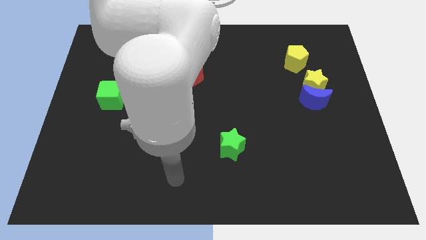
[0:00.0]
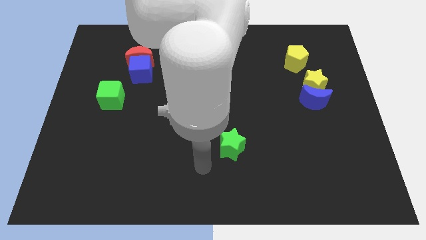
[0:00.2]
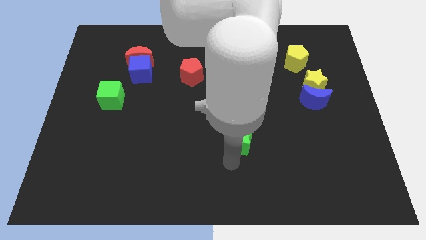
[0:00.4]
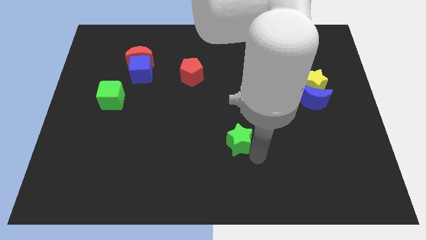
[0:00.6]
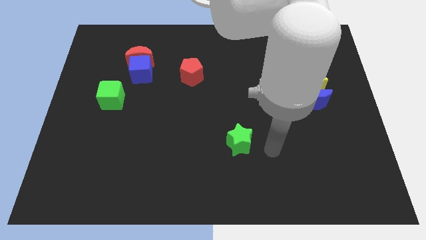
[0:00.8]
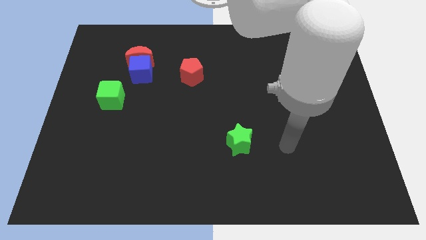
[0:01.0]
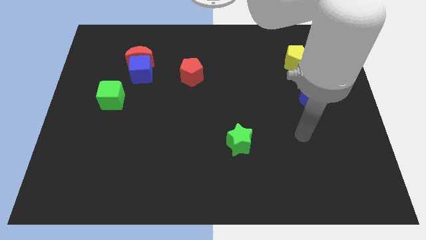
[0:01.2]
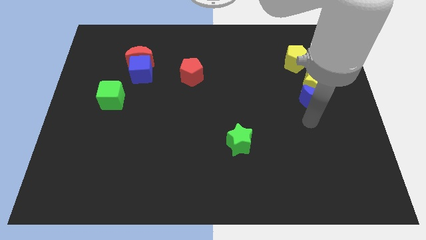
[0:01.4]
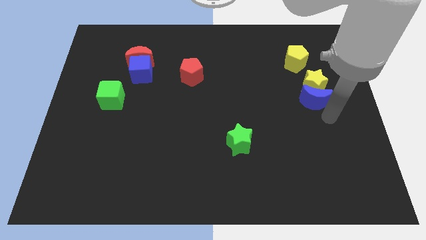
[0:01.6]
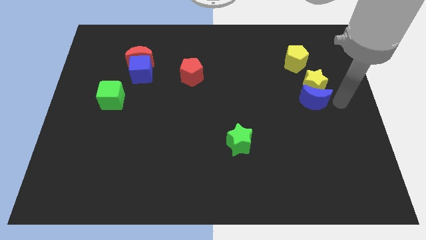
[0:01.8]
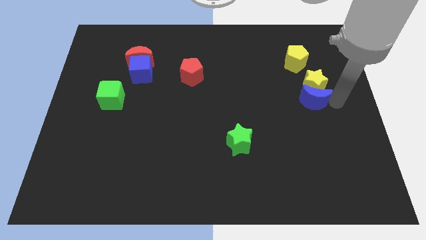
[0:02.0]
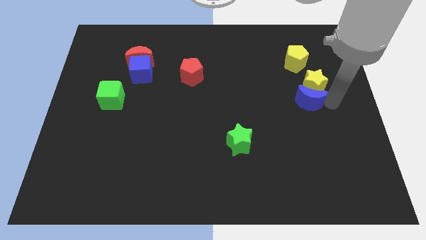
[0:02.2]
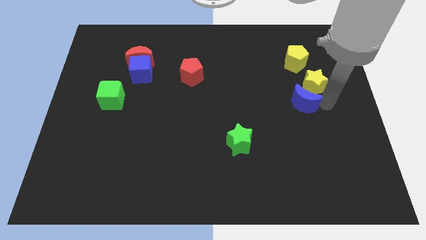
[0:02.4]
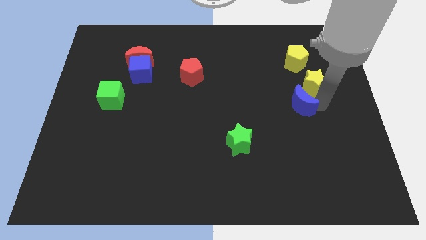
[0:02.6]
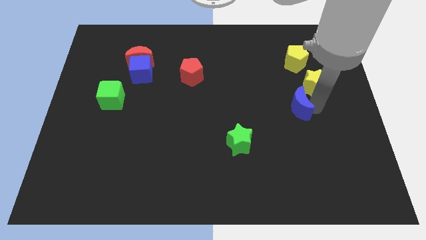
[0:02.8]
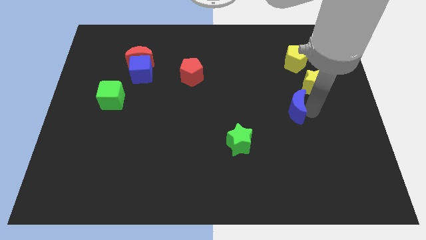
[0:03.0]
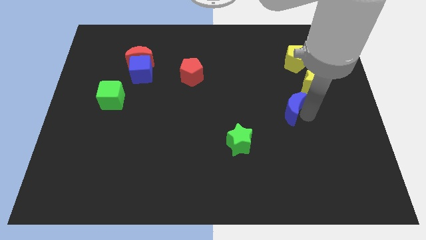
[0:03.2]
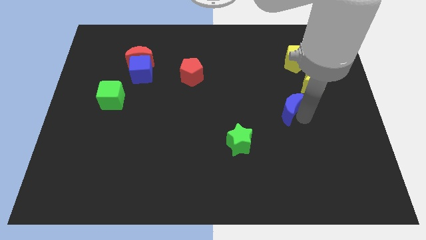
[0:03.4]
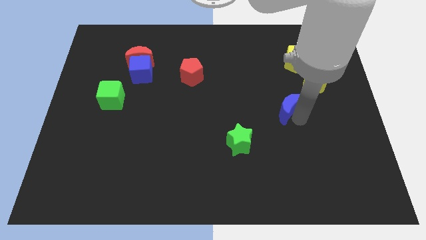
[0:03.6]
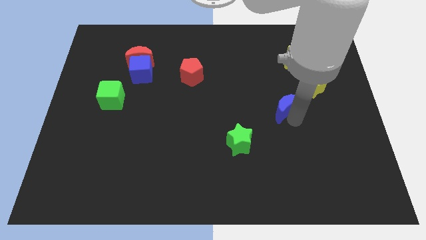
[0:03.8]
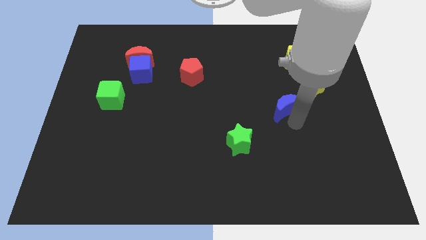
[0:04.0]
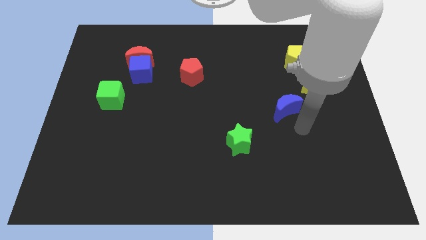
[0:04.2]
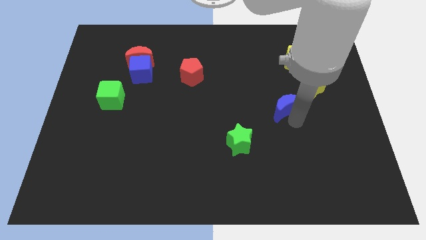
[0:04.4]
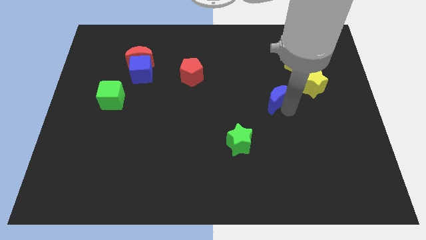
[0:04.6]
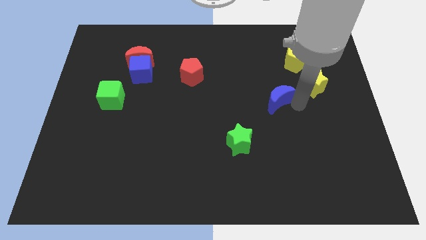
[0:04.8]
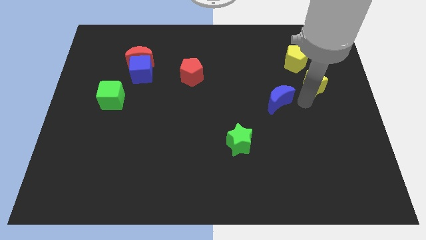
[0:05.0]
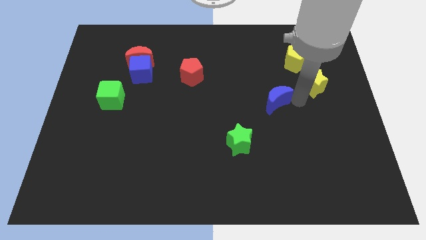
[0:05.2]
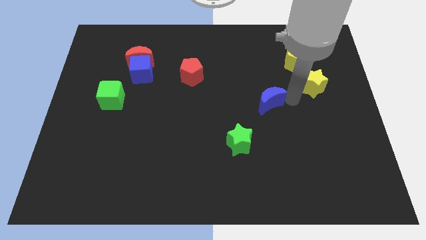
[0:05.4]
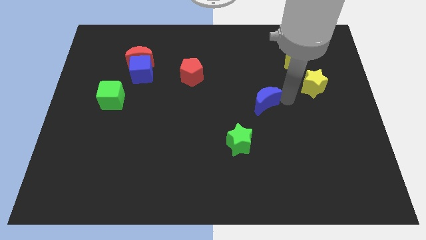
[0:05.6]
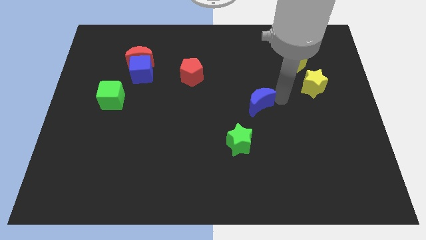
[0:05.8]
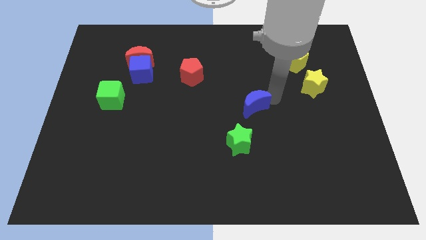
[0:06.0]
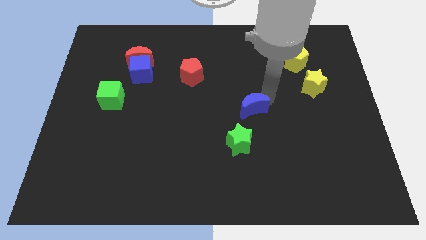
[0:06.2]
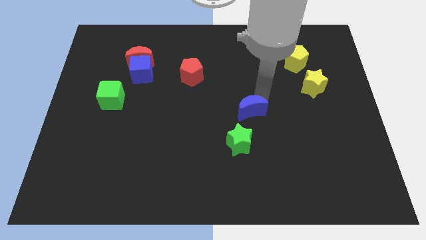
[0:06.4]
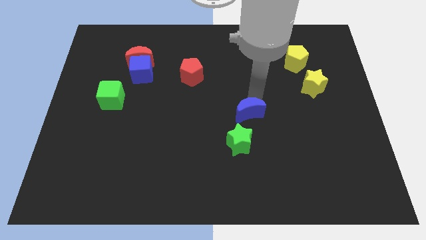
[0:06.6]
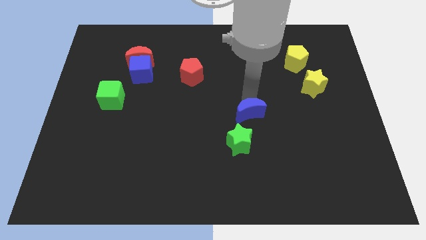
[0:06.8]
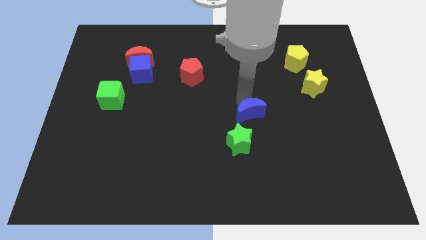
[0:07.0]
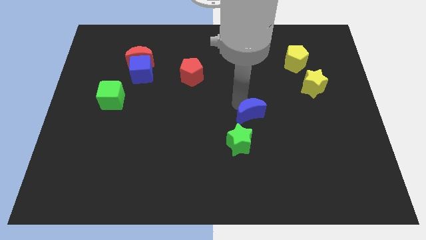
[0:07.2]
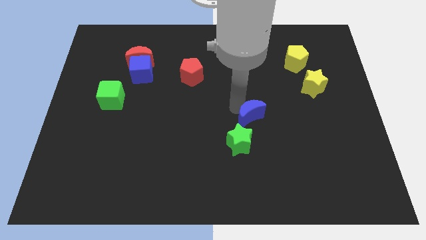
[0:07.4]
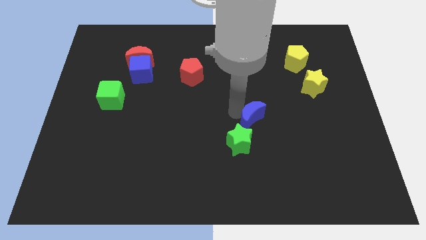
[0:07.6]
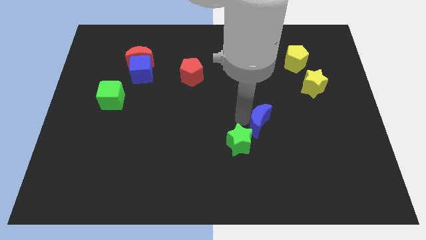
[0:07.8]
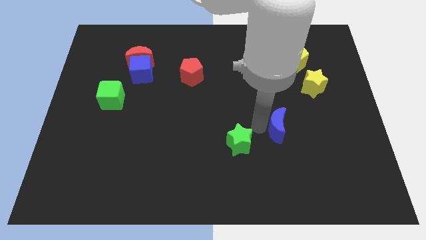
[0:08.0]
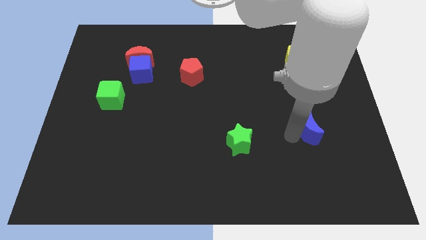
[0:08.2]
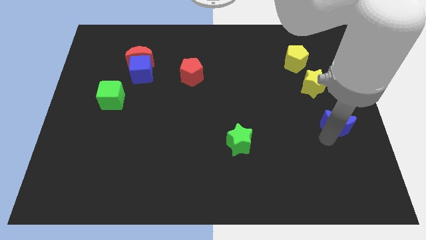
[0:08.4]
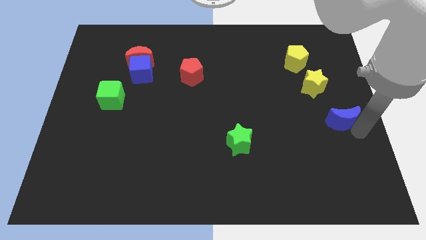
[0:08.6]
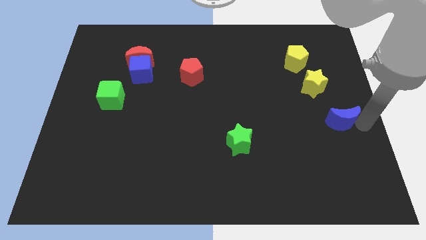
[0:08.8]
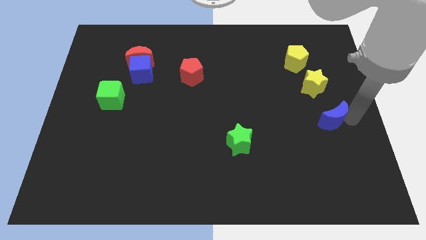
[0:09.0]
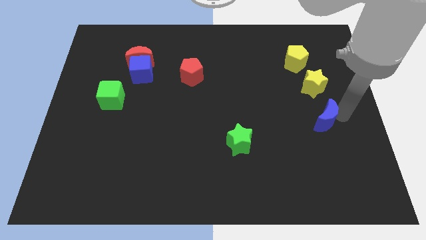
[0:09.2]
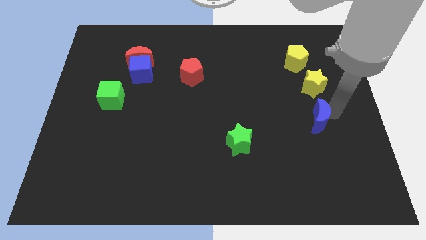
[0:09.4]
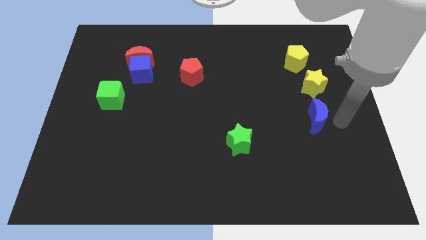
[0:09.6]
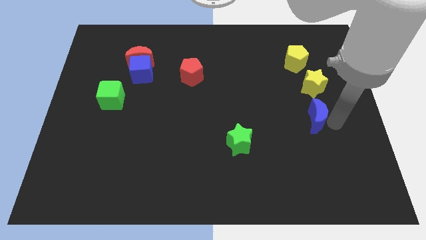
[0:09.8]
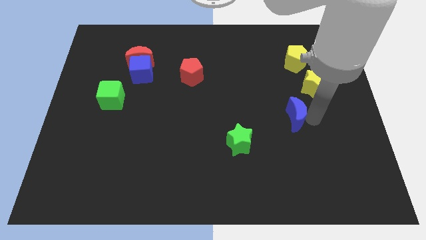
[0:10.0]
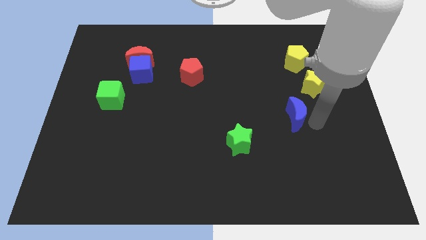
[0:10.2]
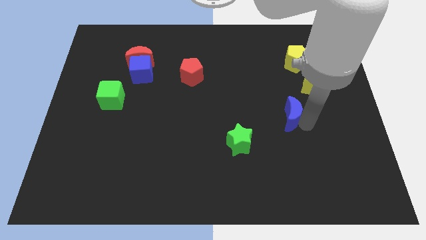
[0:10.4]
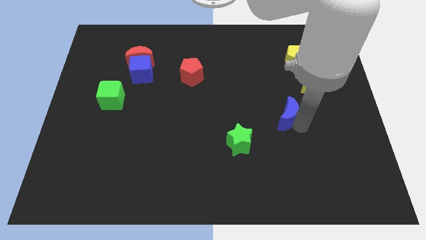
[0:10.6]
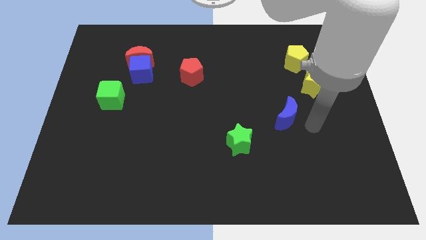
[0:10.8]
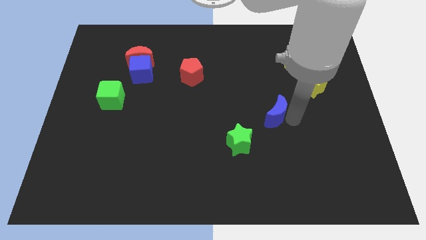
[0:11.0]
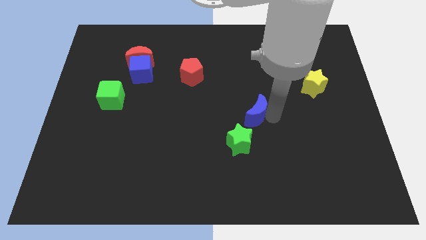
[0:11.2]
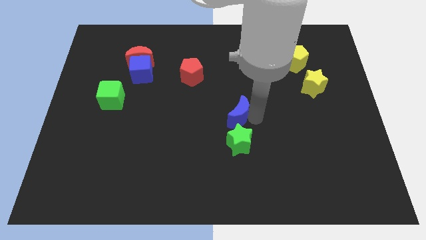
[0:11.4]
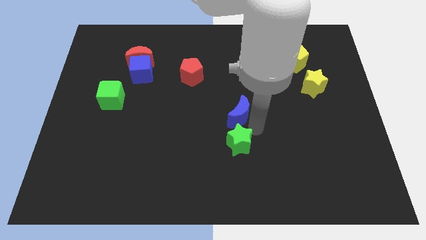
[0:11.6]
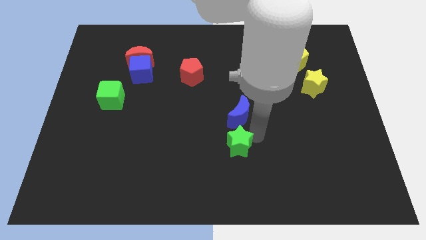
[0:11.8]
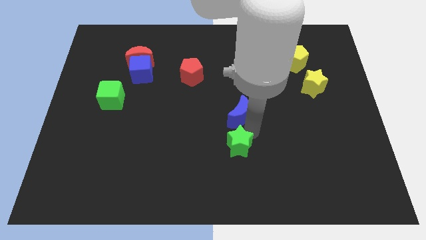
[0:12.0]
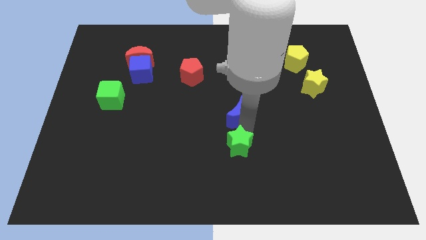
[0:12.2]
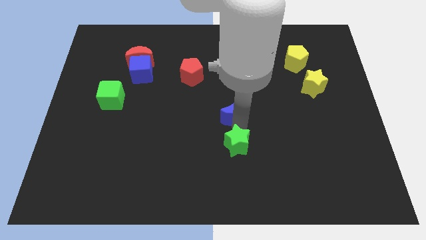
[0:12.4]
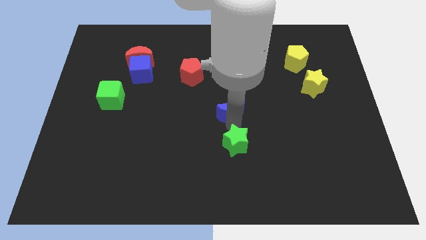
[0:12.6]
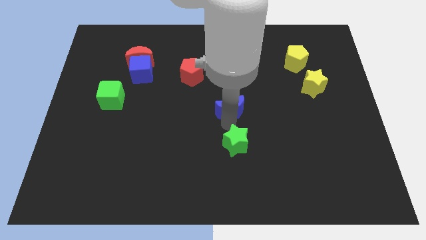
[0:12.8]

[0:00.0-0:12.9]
move the blue moon to the left

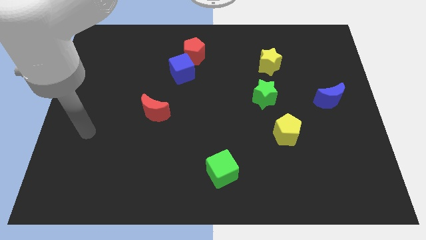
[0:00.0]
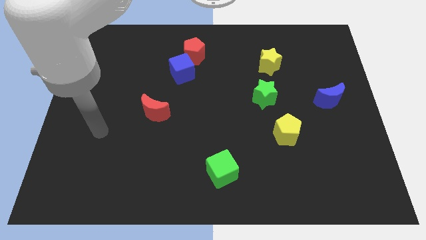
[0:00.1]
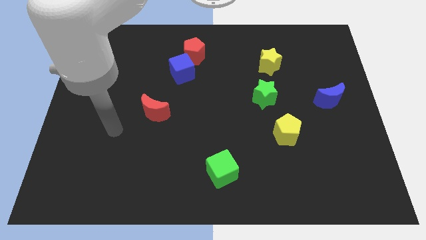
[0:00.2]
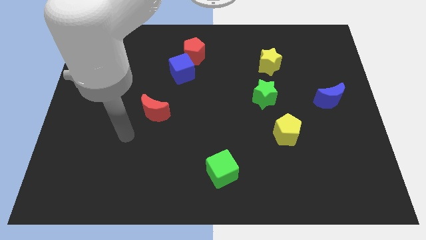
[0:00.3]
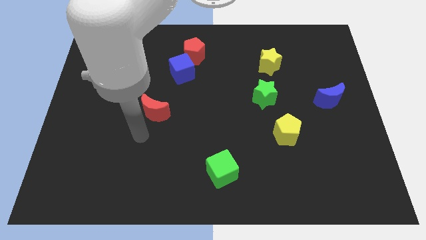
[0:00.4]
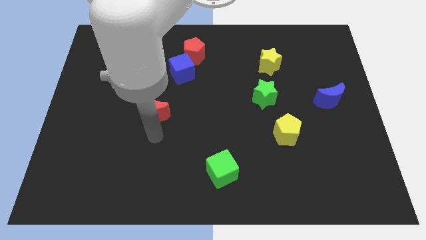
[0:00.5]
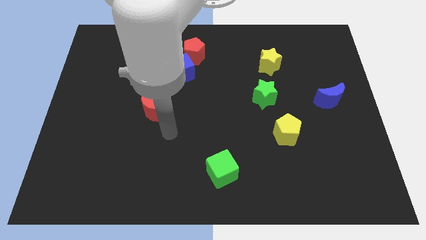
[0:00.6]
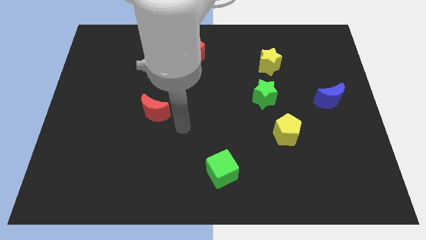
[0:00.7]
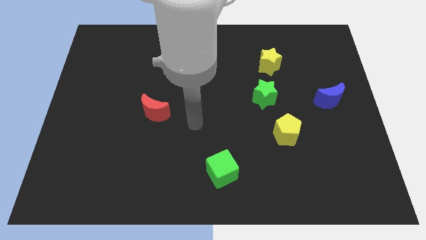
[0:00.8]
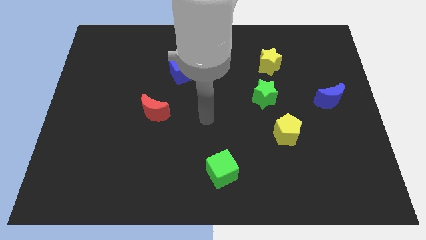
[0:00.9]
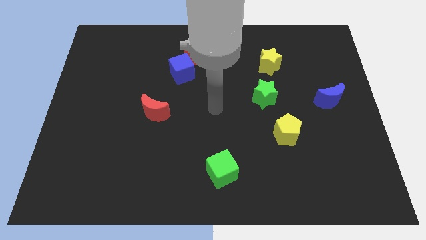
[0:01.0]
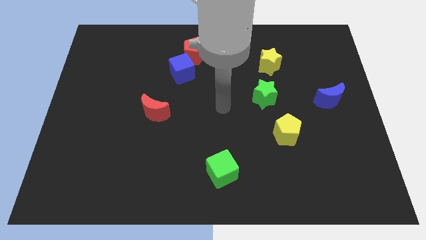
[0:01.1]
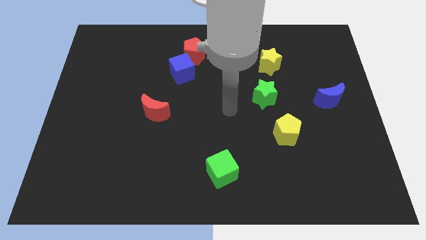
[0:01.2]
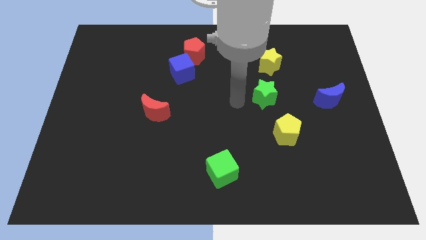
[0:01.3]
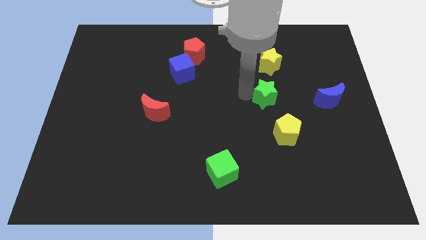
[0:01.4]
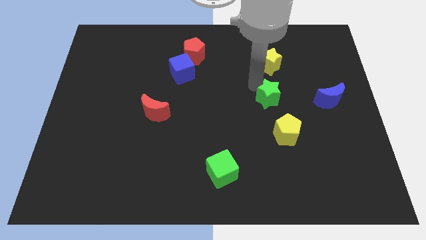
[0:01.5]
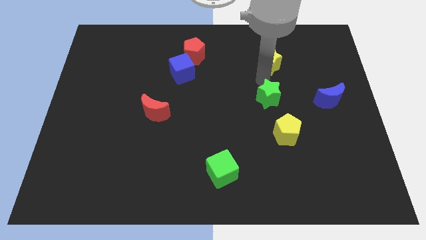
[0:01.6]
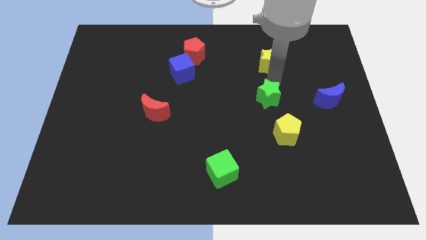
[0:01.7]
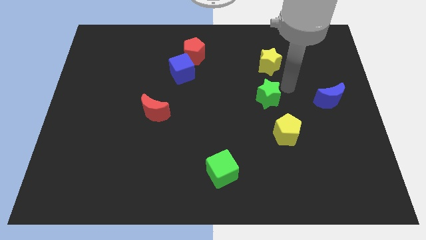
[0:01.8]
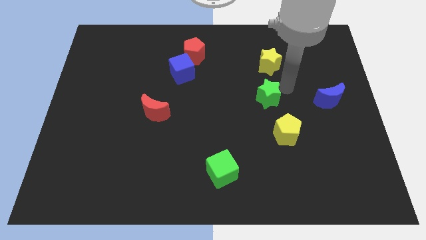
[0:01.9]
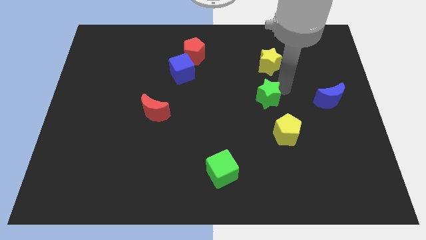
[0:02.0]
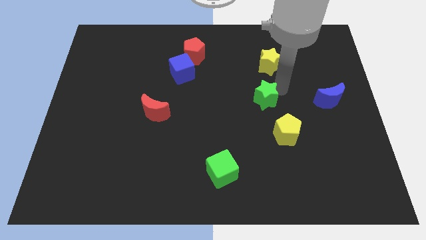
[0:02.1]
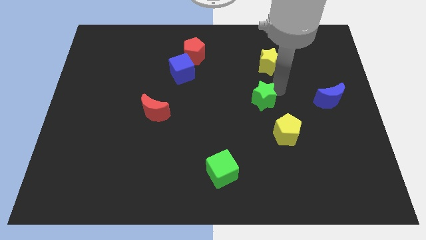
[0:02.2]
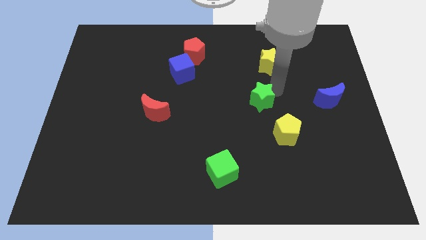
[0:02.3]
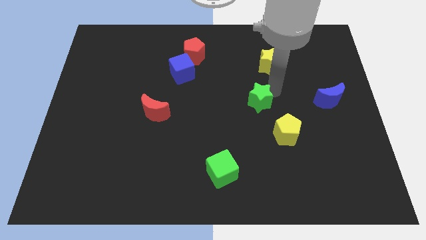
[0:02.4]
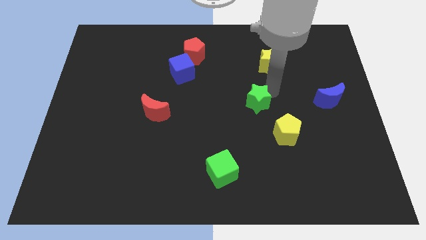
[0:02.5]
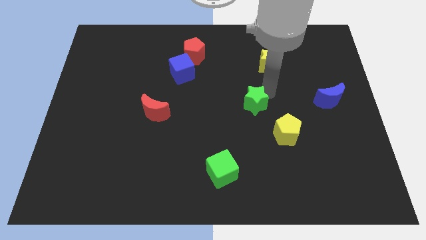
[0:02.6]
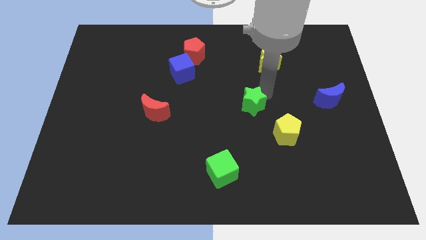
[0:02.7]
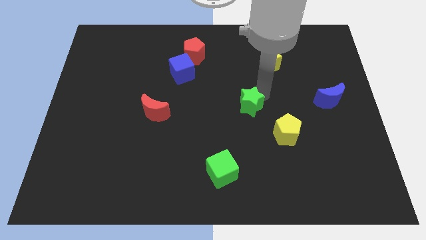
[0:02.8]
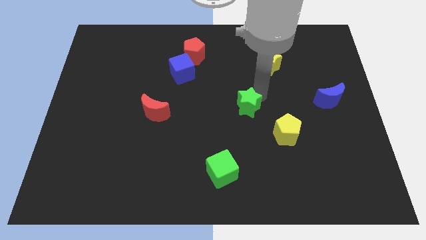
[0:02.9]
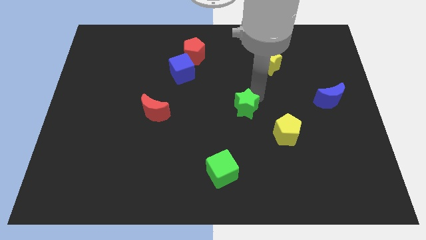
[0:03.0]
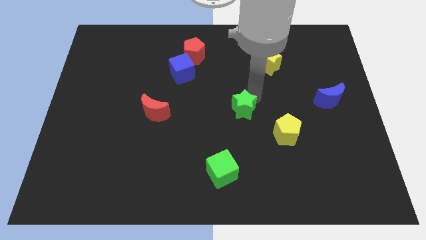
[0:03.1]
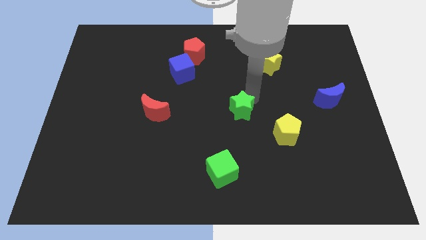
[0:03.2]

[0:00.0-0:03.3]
move the green star somewhat down and to the left
